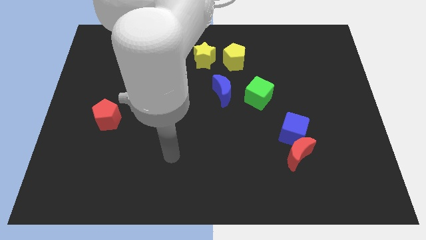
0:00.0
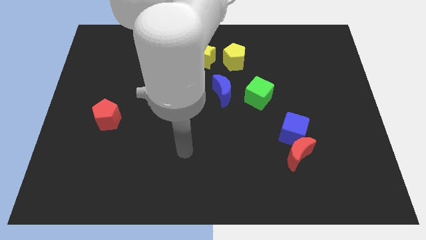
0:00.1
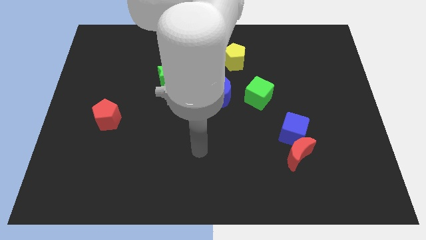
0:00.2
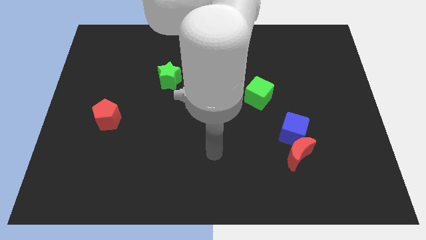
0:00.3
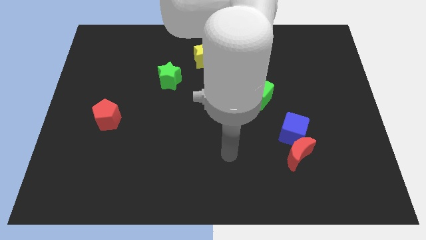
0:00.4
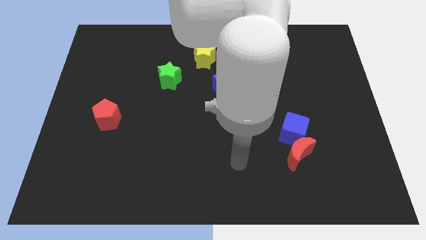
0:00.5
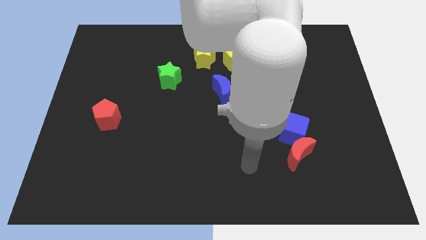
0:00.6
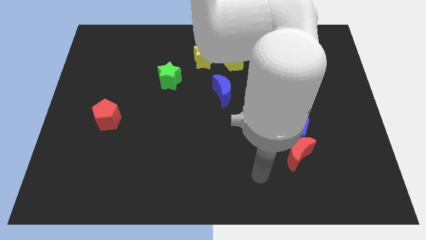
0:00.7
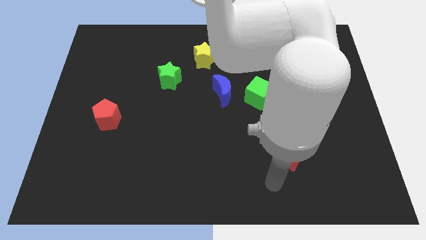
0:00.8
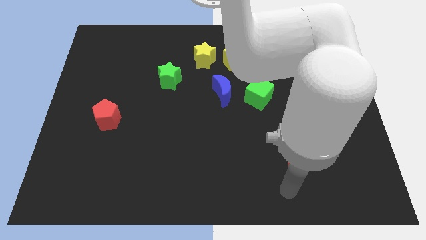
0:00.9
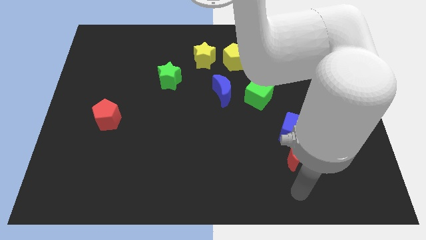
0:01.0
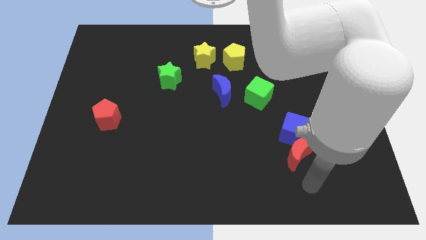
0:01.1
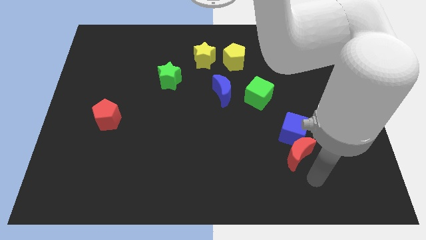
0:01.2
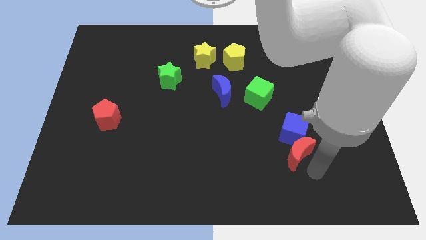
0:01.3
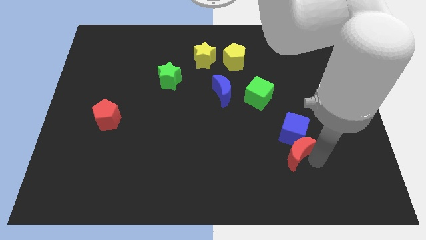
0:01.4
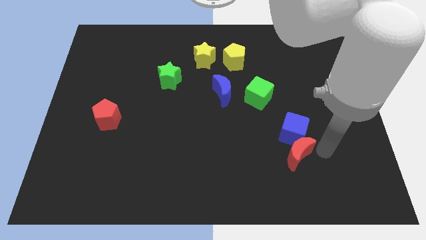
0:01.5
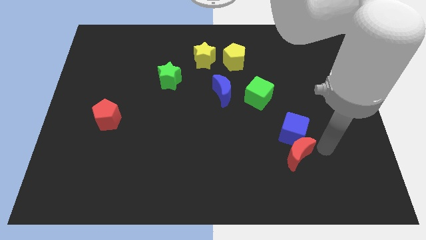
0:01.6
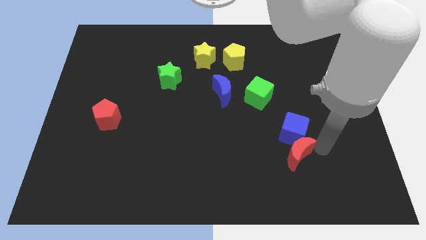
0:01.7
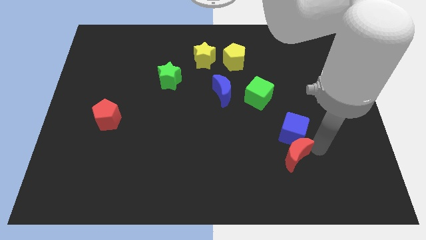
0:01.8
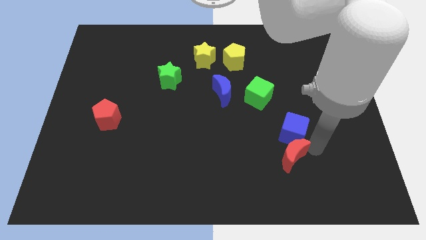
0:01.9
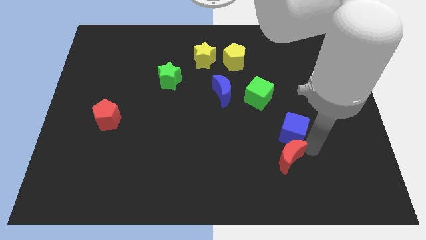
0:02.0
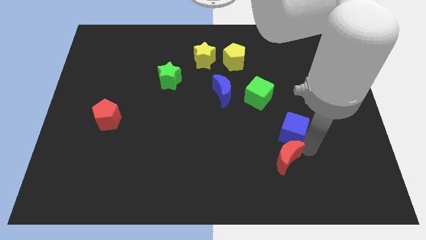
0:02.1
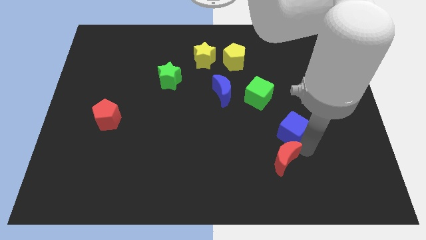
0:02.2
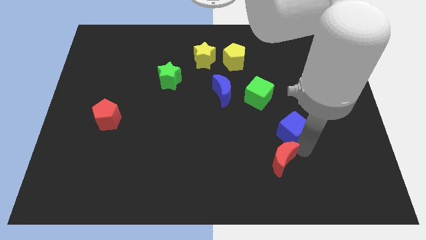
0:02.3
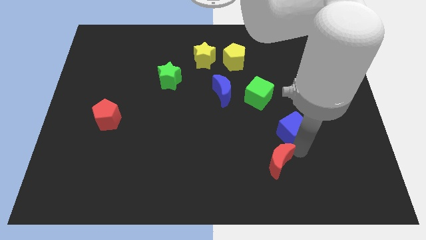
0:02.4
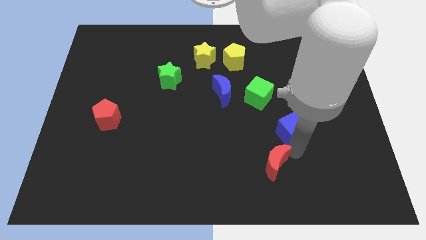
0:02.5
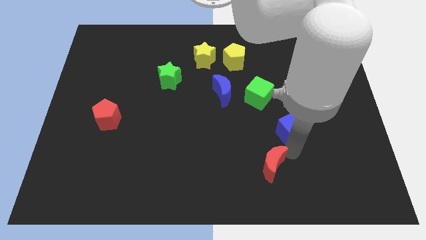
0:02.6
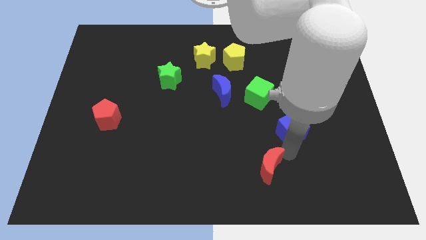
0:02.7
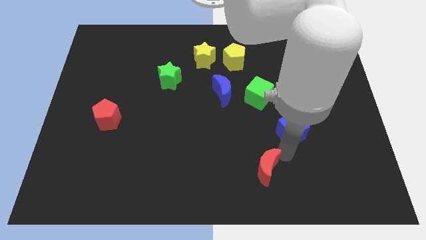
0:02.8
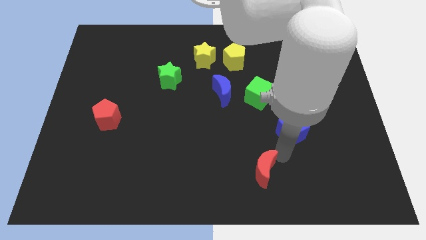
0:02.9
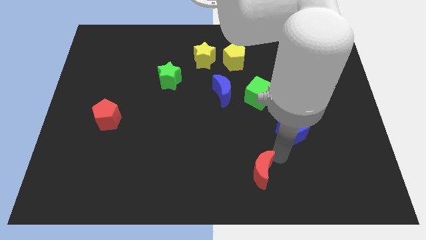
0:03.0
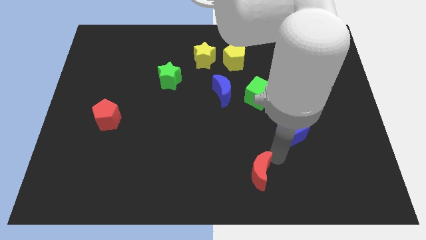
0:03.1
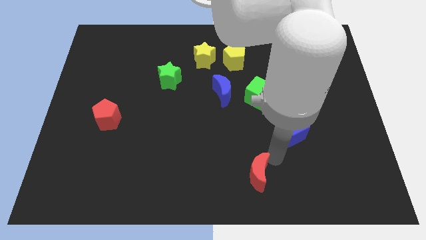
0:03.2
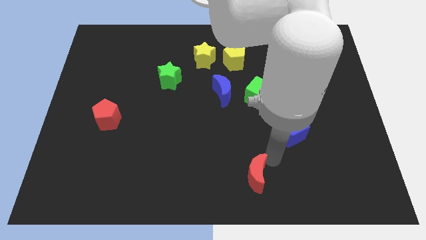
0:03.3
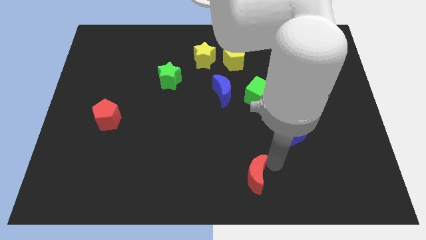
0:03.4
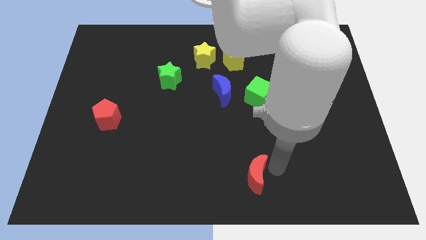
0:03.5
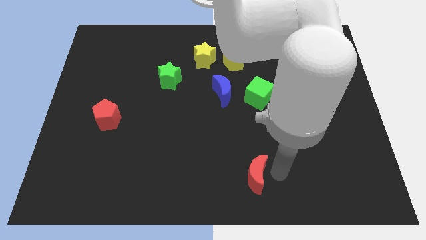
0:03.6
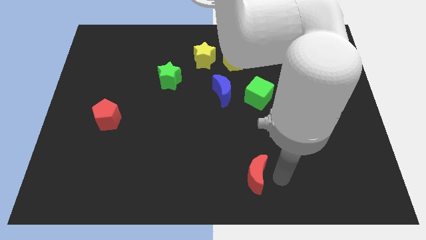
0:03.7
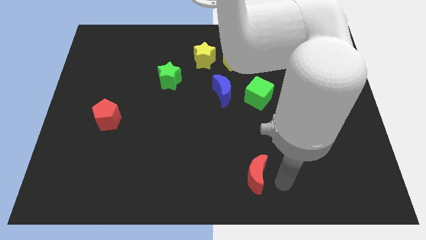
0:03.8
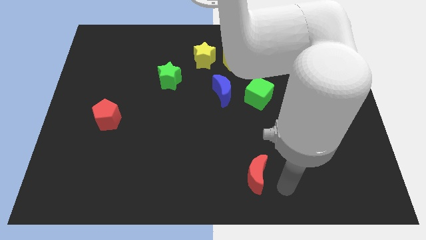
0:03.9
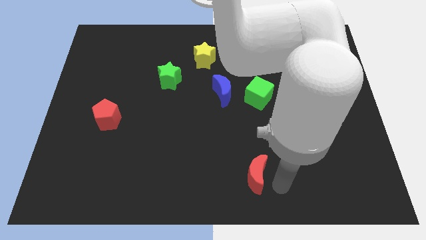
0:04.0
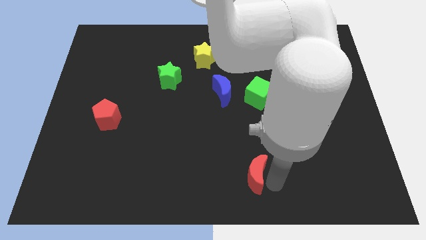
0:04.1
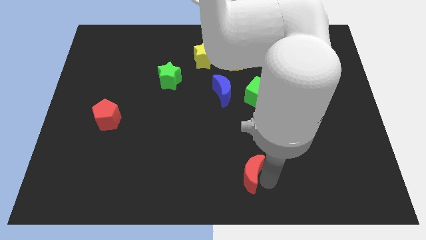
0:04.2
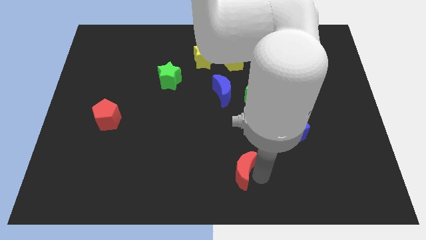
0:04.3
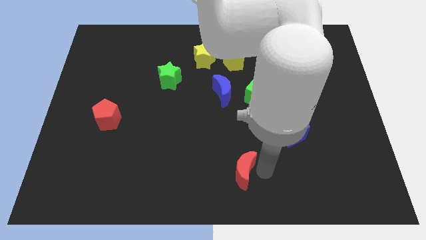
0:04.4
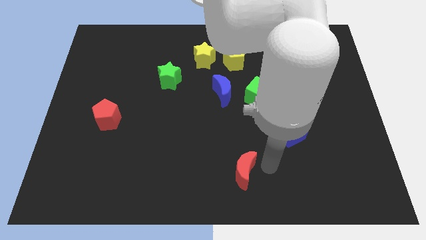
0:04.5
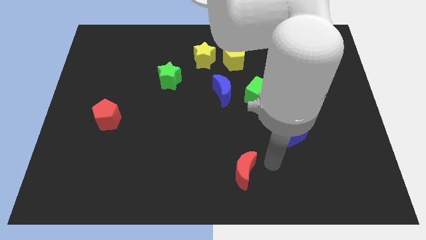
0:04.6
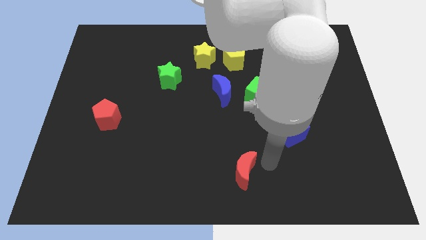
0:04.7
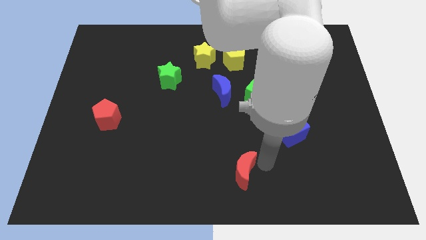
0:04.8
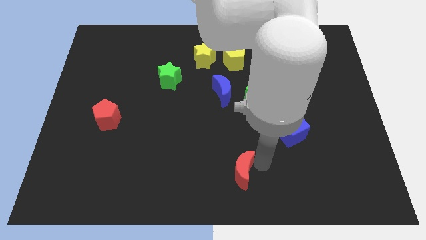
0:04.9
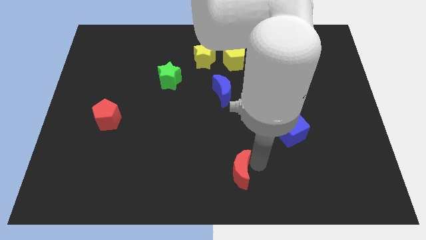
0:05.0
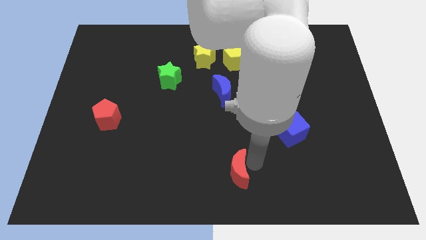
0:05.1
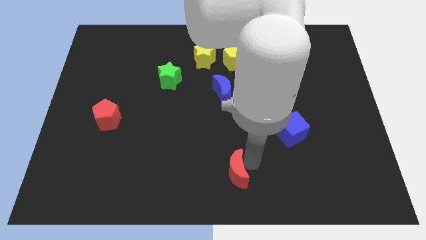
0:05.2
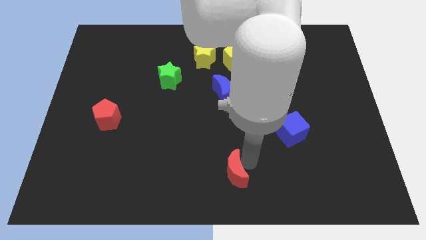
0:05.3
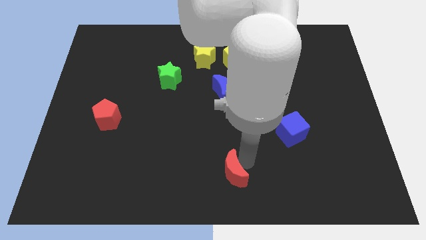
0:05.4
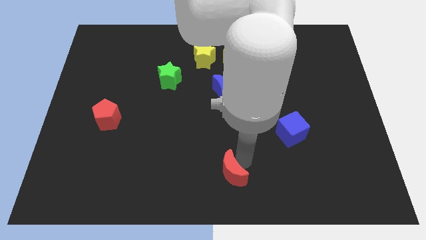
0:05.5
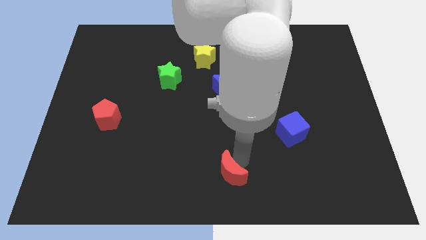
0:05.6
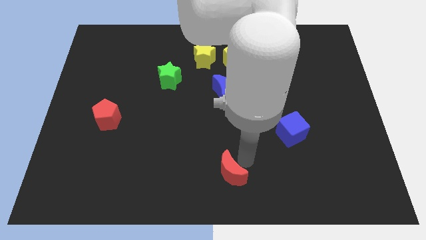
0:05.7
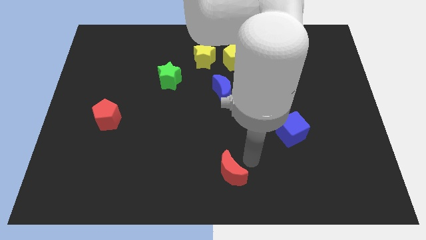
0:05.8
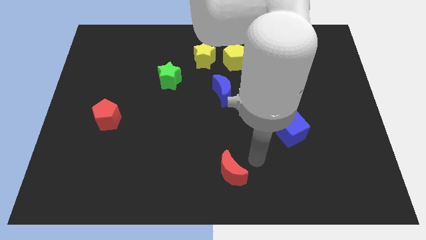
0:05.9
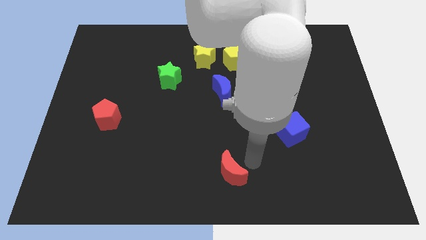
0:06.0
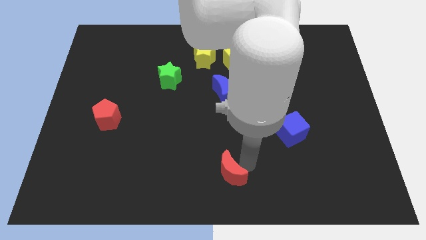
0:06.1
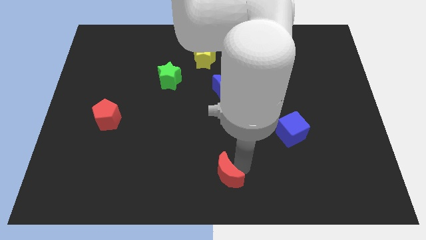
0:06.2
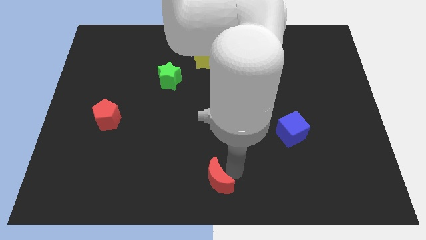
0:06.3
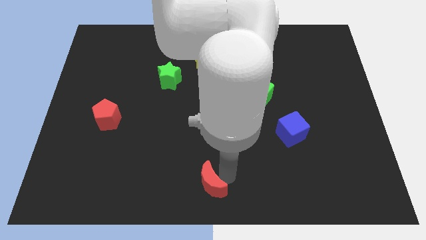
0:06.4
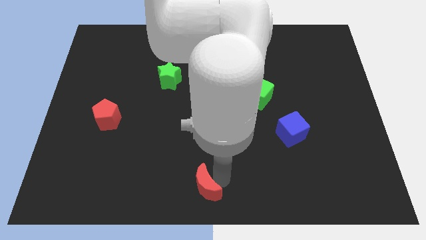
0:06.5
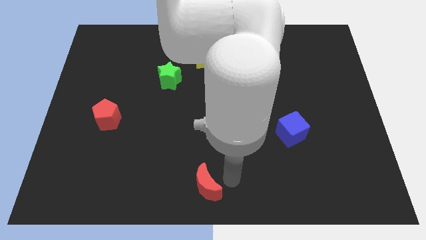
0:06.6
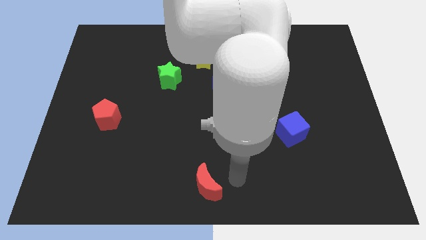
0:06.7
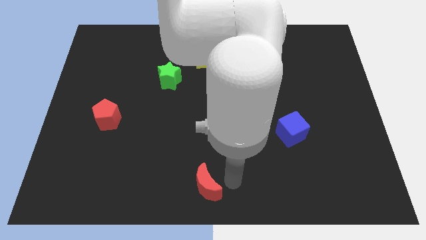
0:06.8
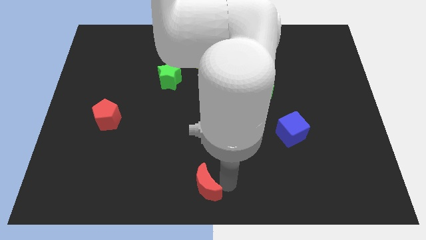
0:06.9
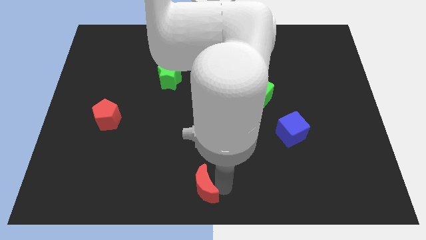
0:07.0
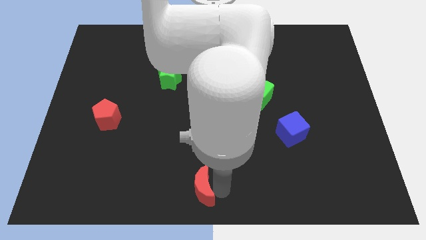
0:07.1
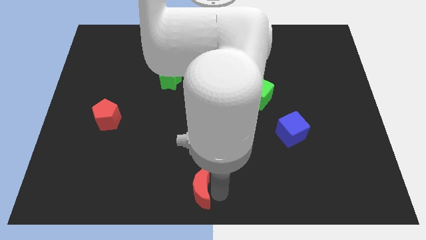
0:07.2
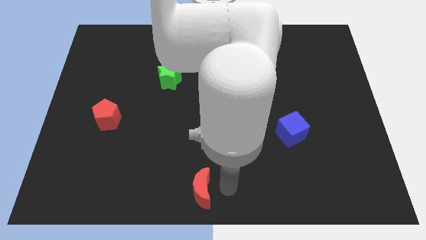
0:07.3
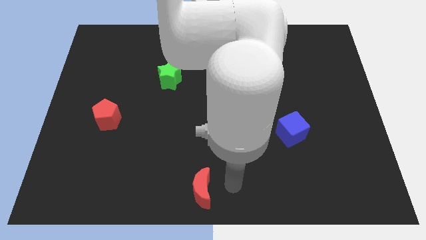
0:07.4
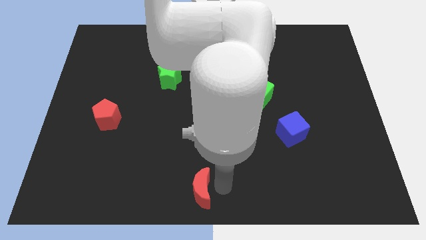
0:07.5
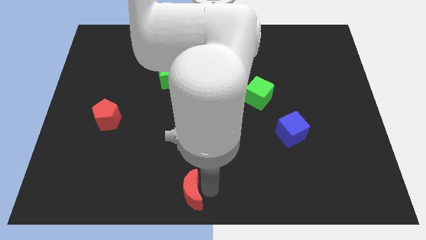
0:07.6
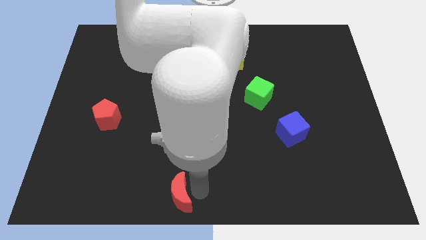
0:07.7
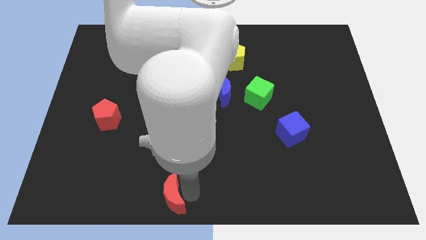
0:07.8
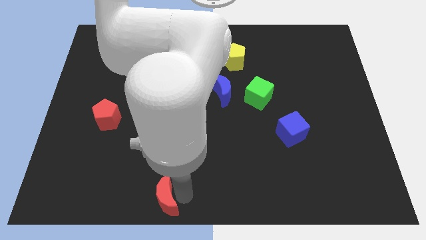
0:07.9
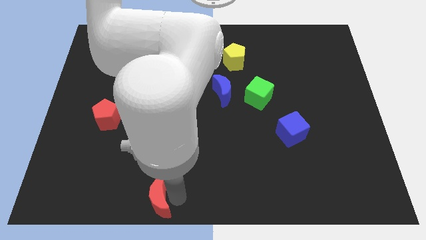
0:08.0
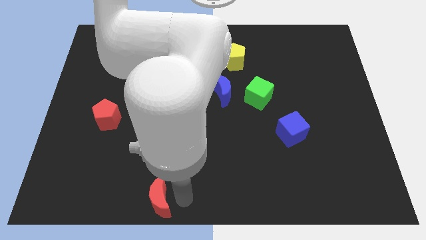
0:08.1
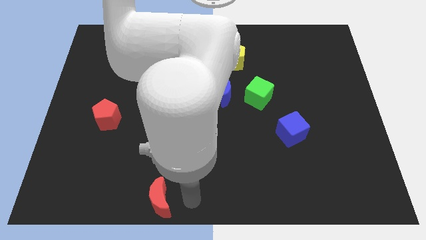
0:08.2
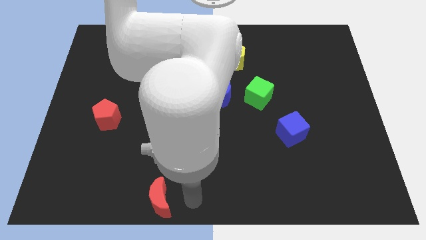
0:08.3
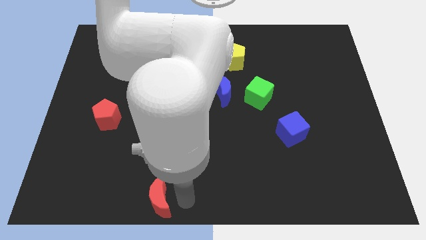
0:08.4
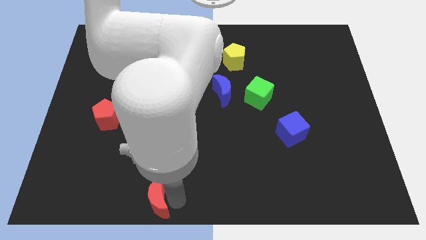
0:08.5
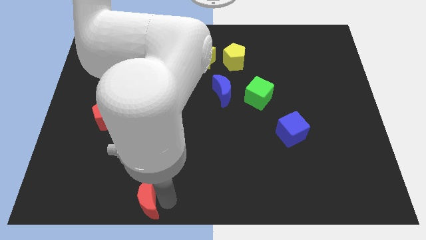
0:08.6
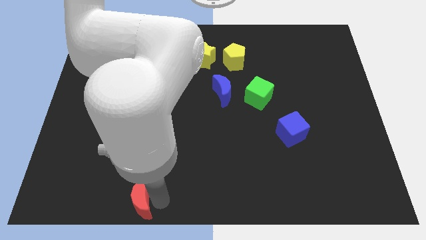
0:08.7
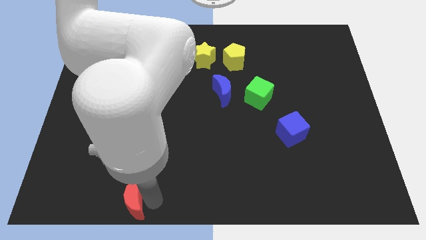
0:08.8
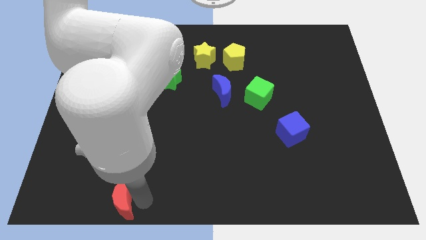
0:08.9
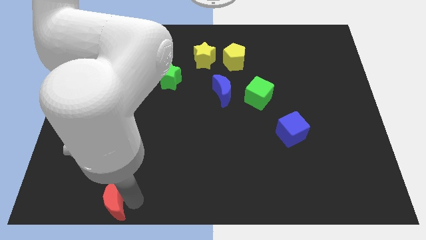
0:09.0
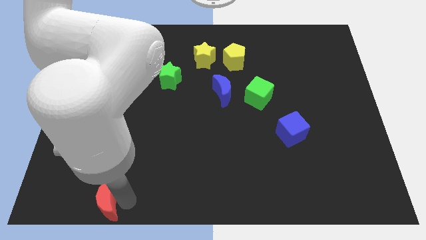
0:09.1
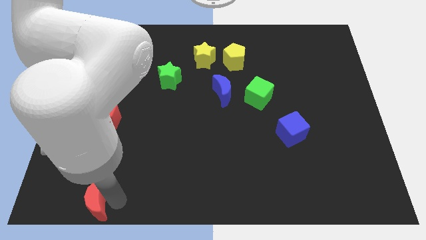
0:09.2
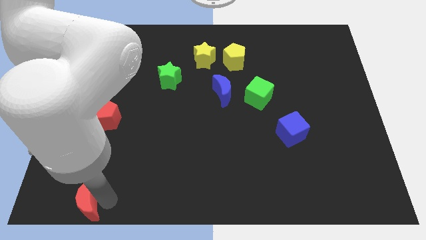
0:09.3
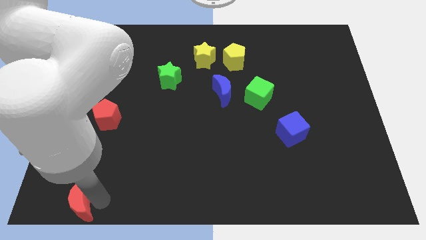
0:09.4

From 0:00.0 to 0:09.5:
push the red moon to the bottom left corner
